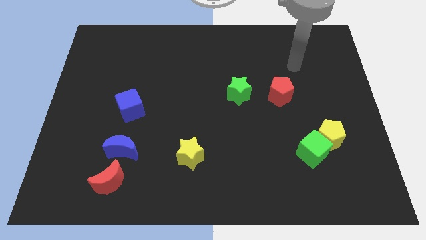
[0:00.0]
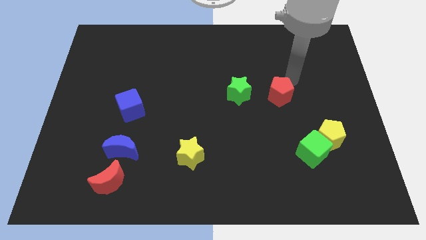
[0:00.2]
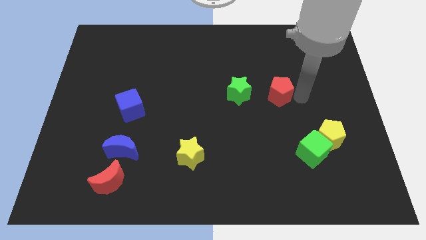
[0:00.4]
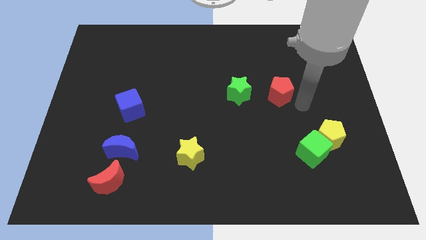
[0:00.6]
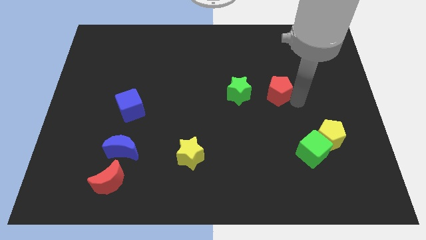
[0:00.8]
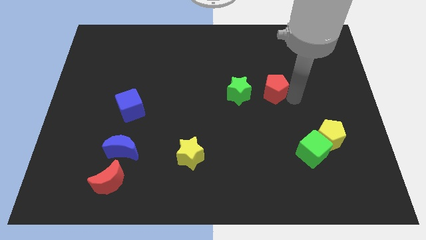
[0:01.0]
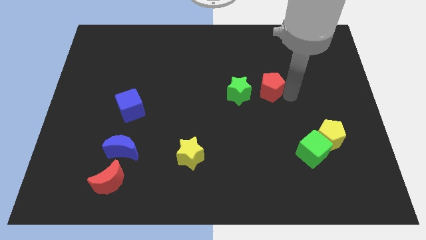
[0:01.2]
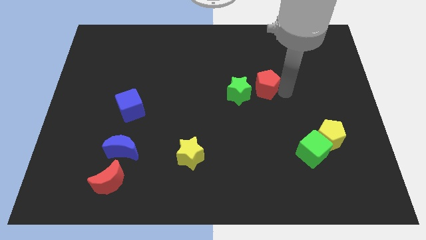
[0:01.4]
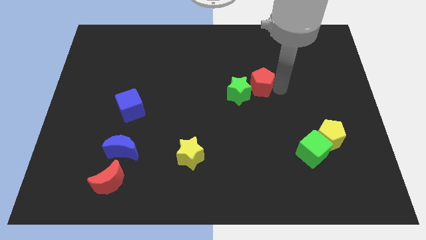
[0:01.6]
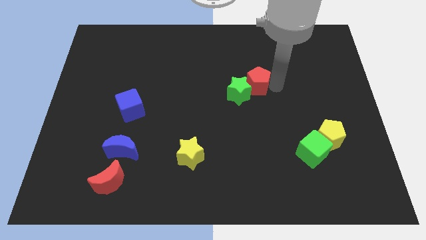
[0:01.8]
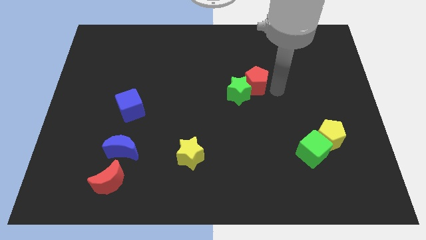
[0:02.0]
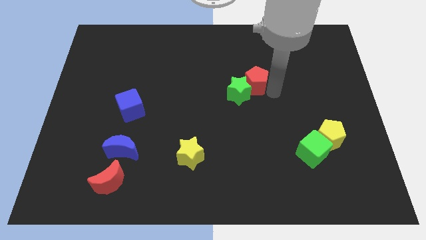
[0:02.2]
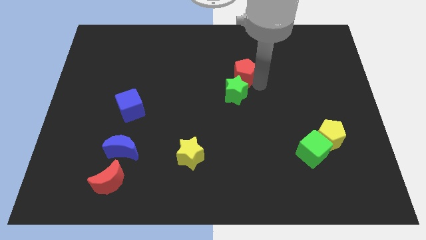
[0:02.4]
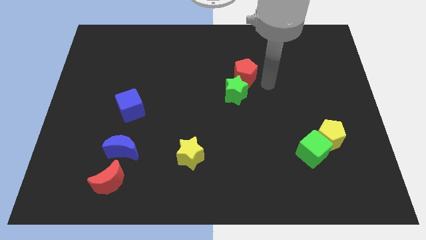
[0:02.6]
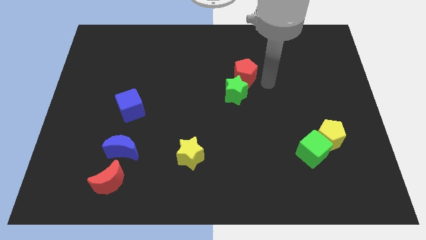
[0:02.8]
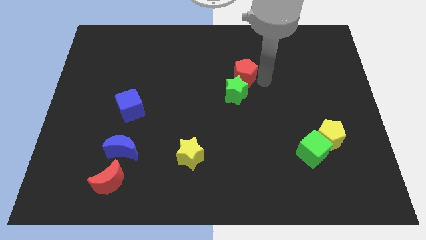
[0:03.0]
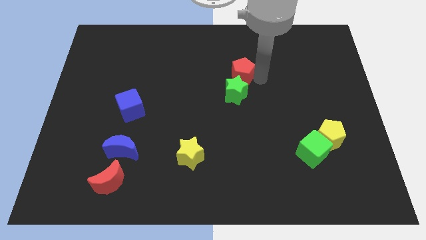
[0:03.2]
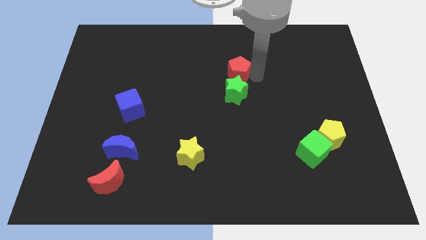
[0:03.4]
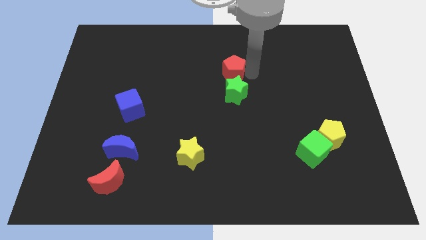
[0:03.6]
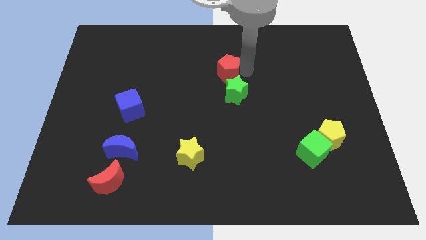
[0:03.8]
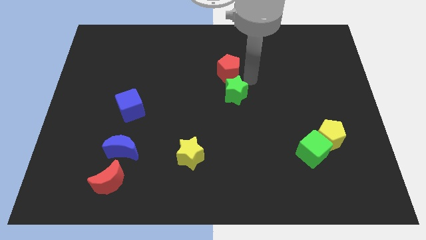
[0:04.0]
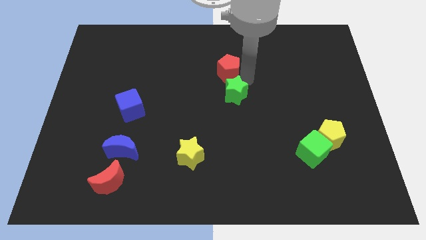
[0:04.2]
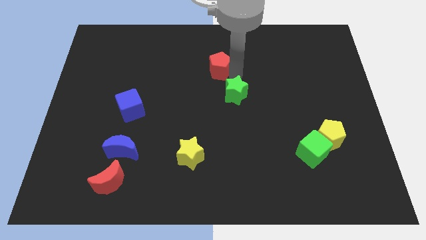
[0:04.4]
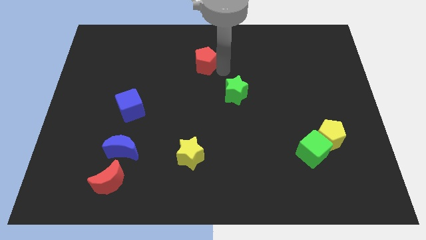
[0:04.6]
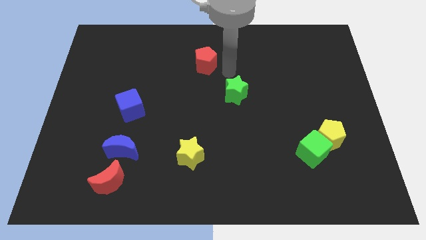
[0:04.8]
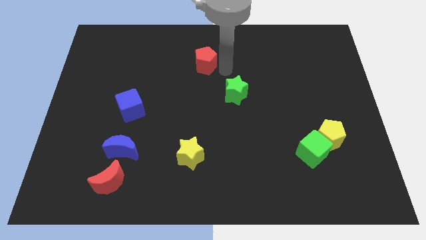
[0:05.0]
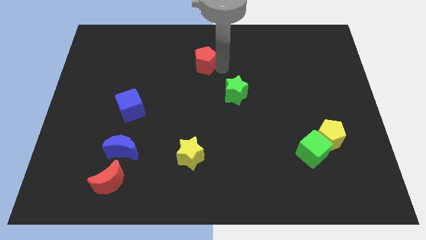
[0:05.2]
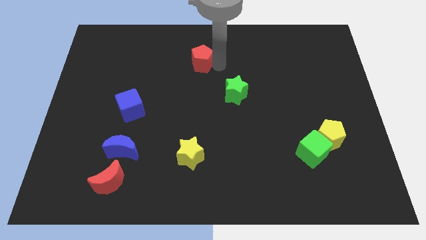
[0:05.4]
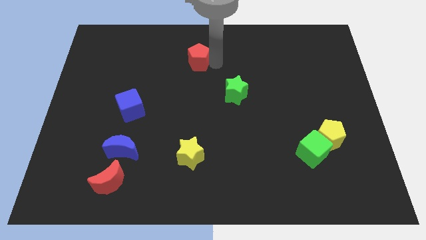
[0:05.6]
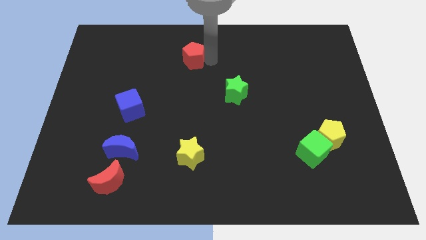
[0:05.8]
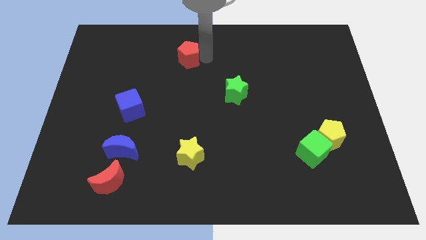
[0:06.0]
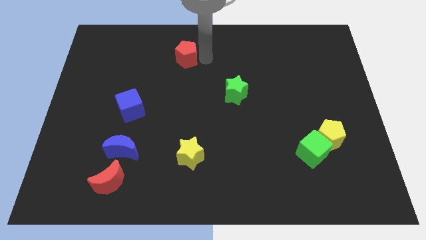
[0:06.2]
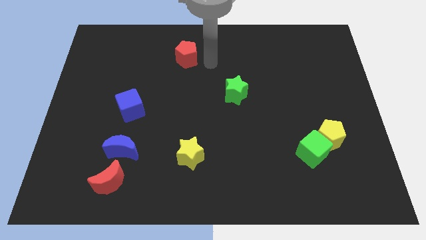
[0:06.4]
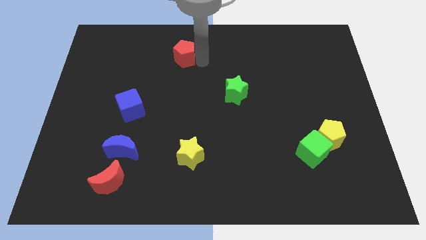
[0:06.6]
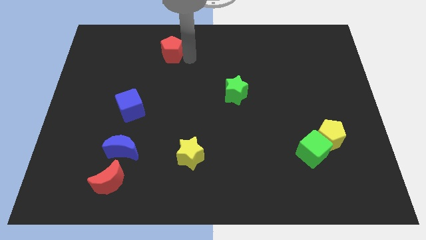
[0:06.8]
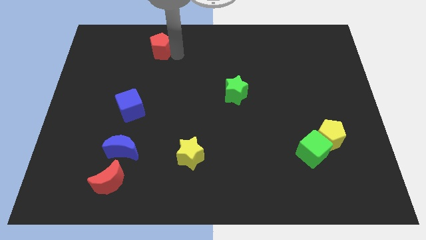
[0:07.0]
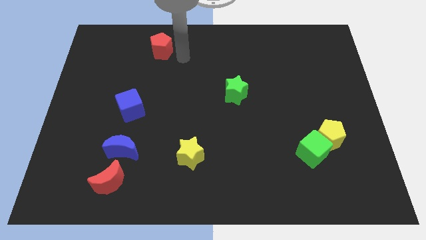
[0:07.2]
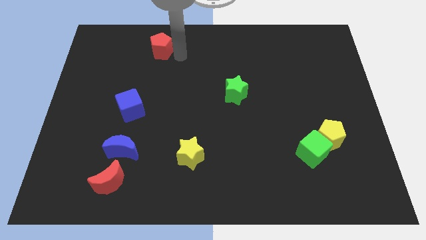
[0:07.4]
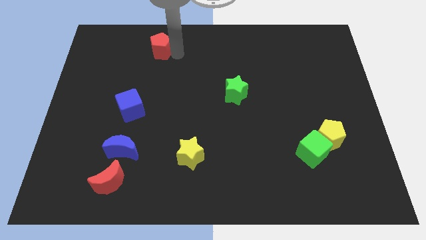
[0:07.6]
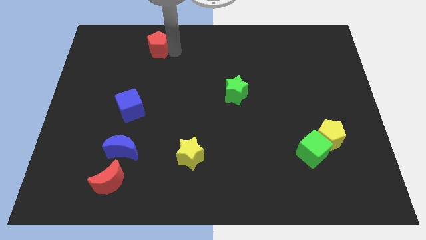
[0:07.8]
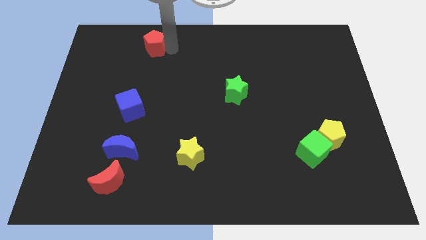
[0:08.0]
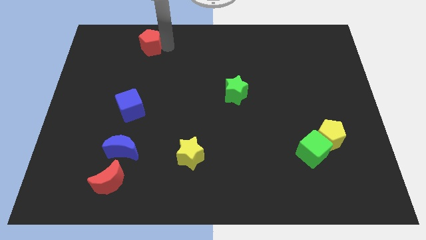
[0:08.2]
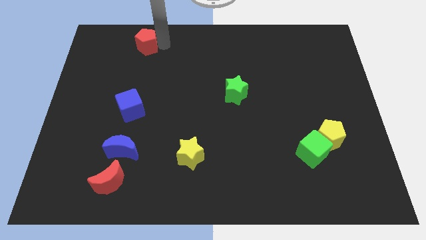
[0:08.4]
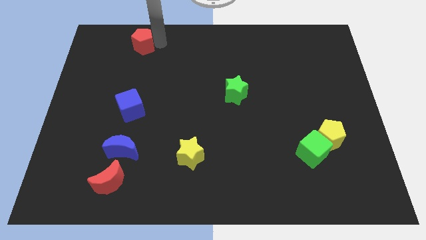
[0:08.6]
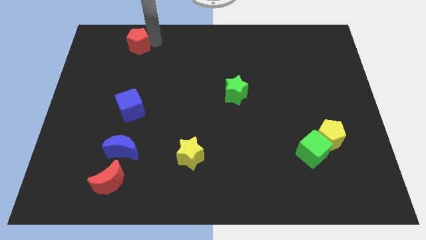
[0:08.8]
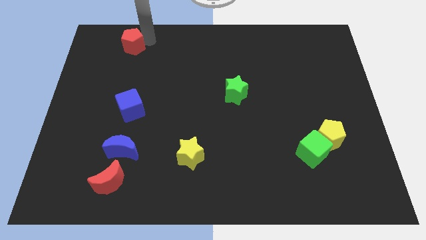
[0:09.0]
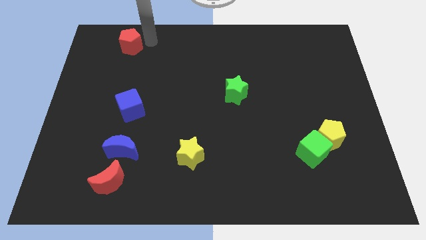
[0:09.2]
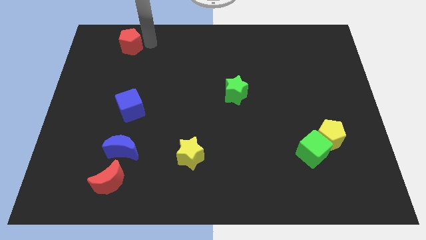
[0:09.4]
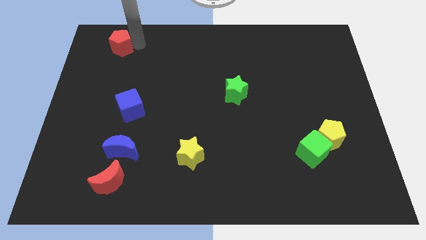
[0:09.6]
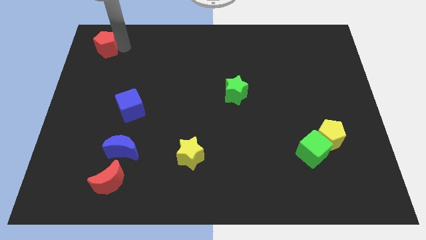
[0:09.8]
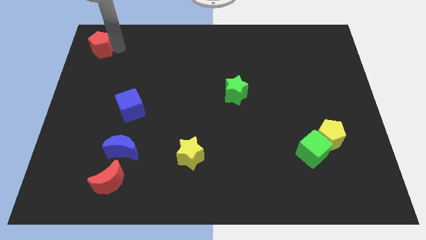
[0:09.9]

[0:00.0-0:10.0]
push the red pentagon to the top left of the board

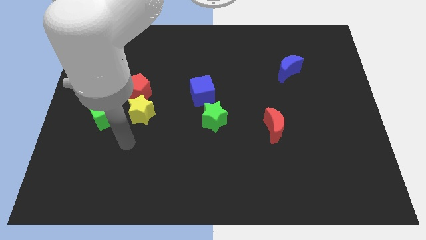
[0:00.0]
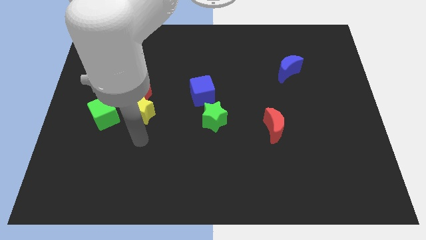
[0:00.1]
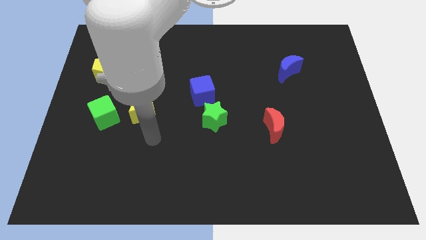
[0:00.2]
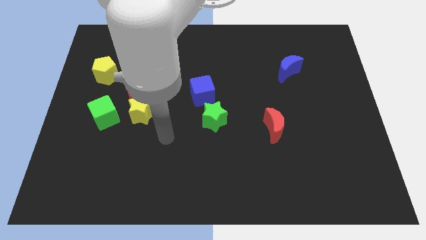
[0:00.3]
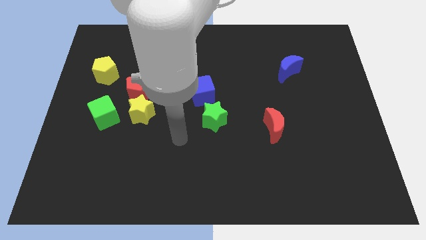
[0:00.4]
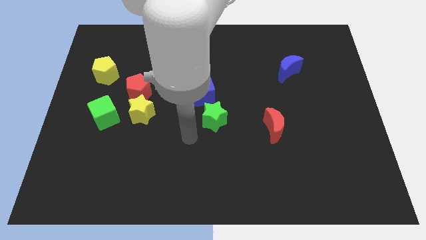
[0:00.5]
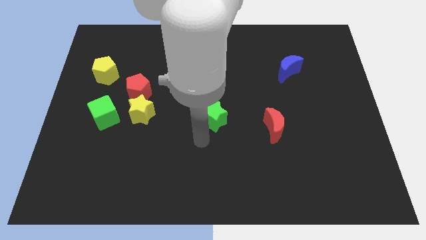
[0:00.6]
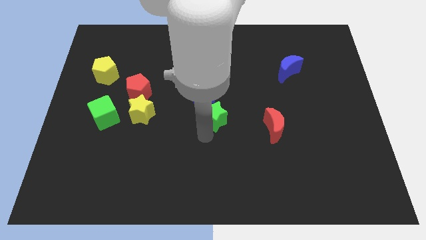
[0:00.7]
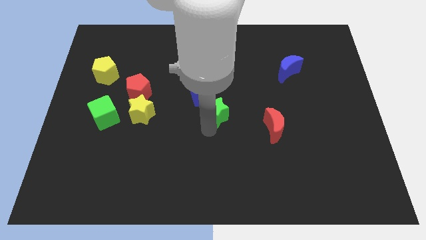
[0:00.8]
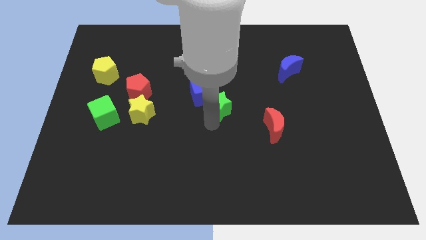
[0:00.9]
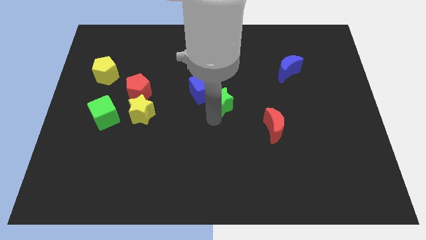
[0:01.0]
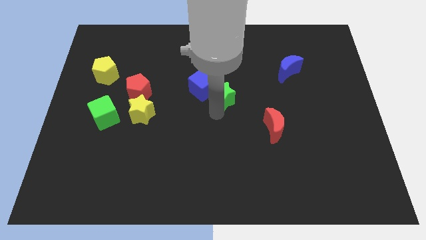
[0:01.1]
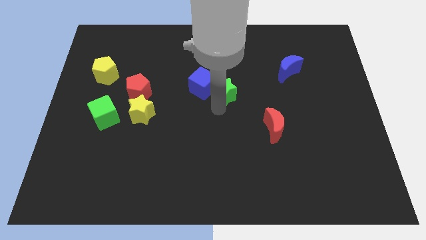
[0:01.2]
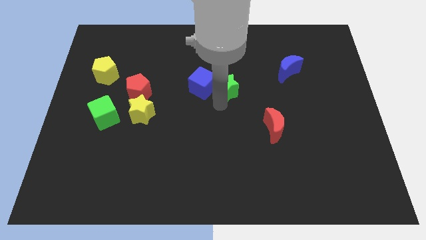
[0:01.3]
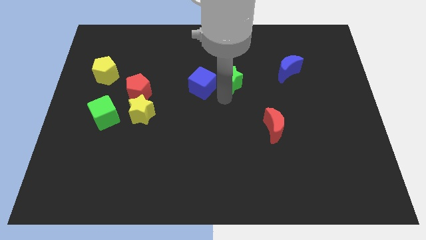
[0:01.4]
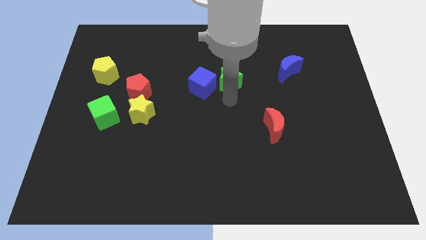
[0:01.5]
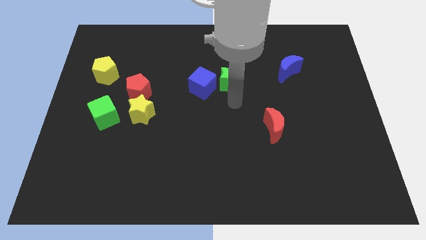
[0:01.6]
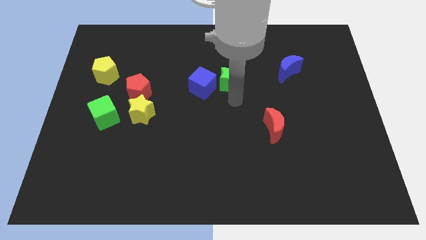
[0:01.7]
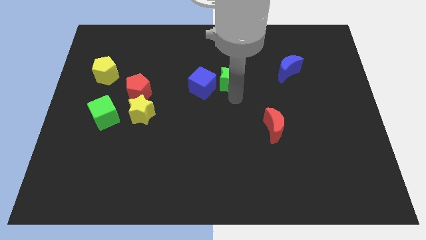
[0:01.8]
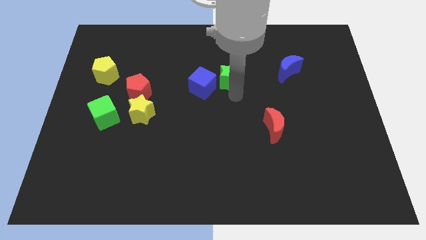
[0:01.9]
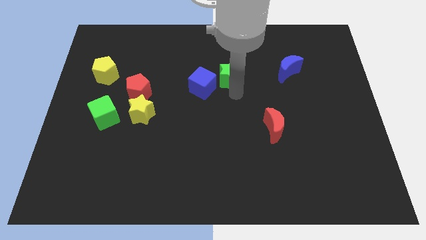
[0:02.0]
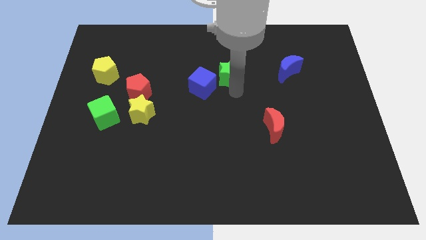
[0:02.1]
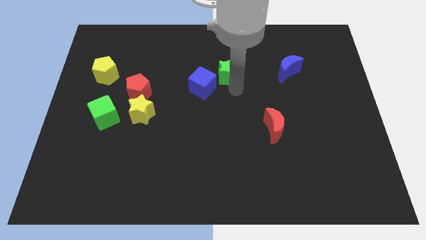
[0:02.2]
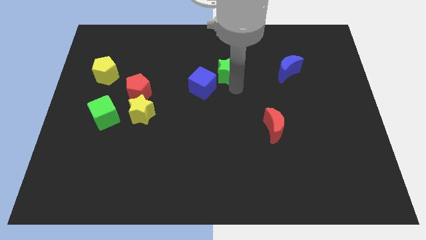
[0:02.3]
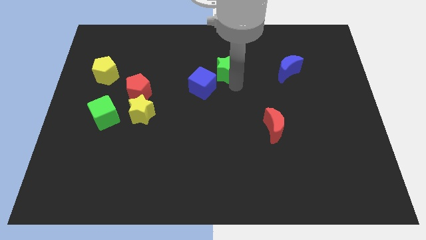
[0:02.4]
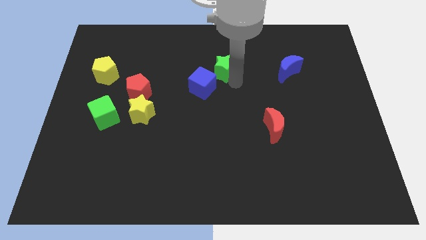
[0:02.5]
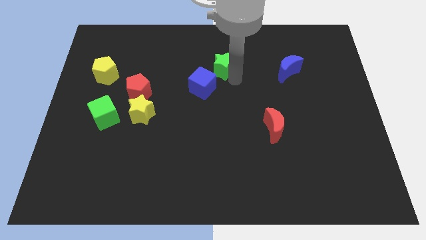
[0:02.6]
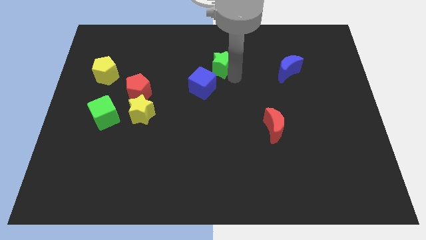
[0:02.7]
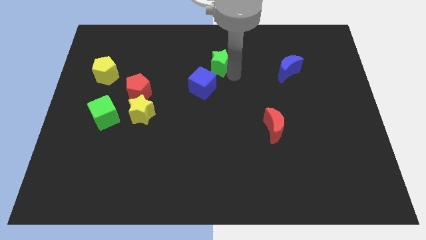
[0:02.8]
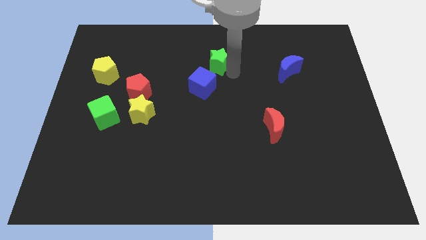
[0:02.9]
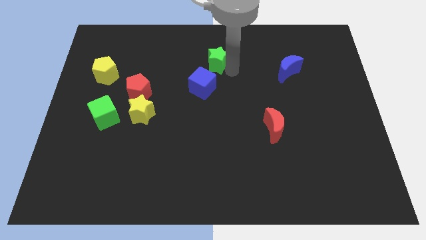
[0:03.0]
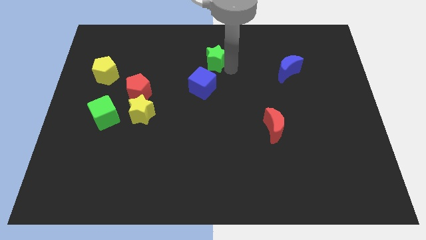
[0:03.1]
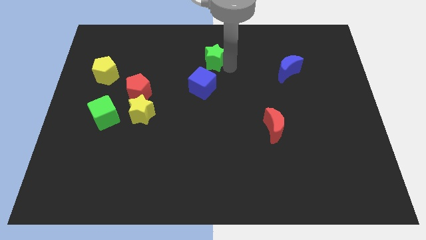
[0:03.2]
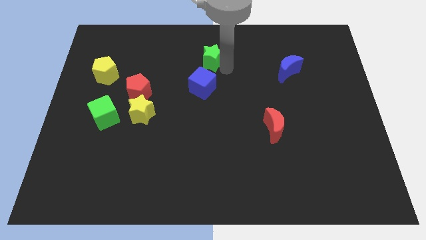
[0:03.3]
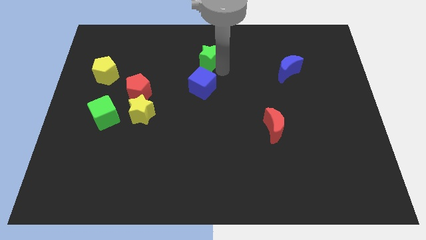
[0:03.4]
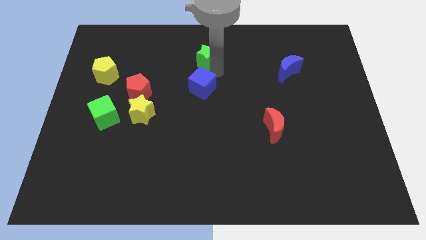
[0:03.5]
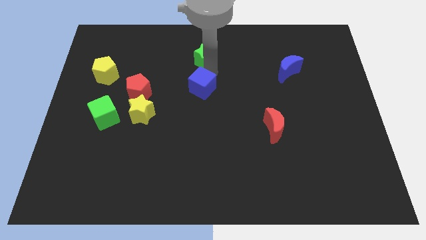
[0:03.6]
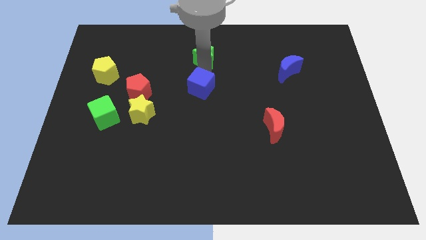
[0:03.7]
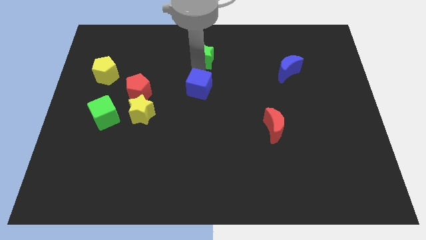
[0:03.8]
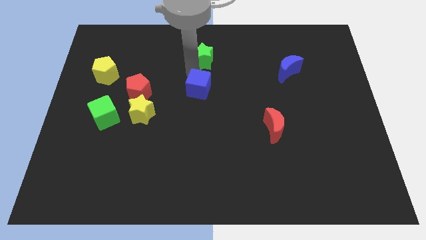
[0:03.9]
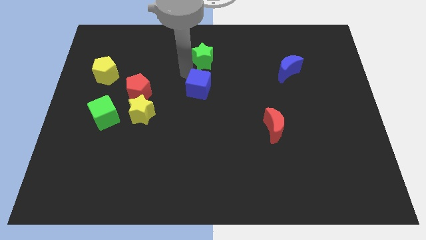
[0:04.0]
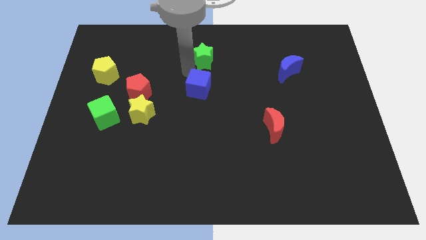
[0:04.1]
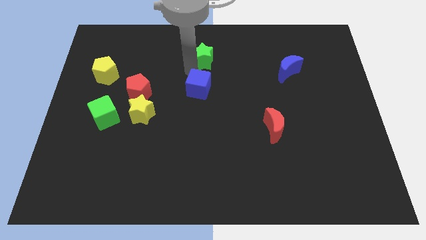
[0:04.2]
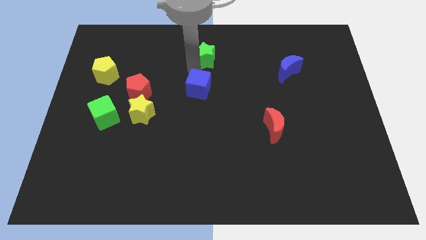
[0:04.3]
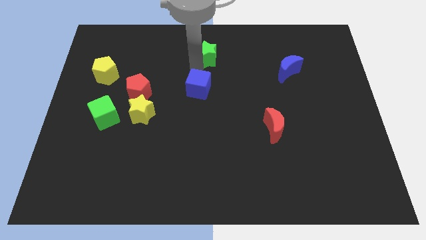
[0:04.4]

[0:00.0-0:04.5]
put the green star to the towards your base
